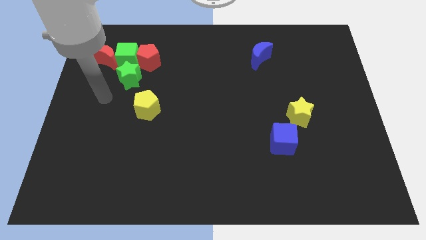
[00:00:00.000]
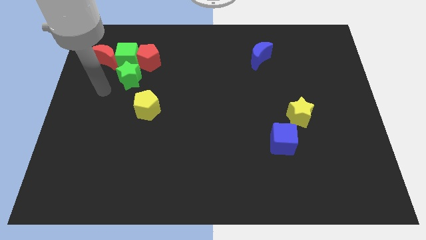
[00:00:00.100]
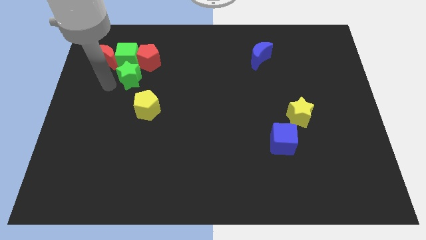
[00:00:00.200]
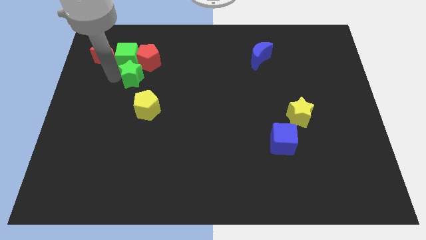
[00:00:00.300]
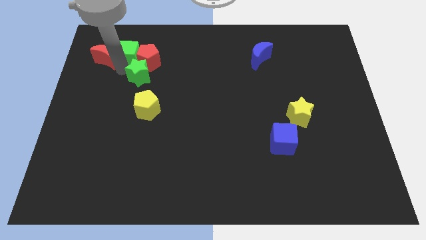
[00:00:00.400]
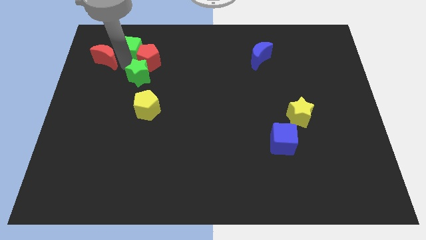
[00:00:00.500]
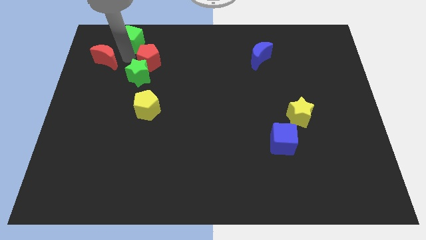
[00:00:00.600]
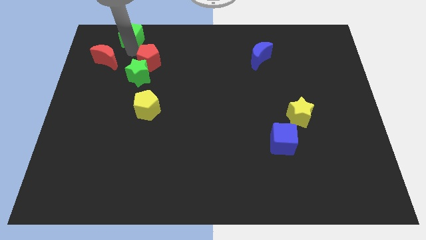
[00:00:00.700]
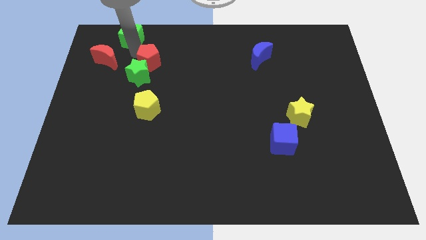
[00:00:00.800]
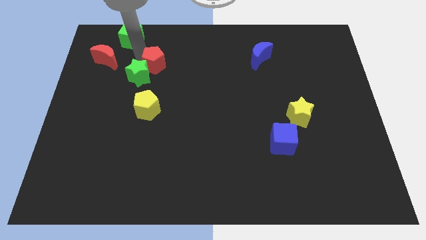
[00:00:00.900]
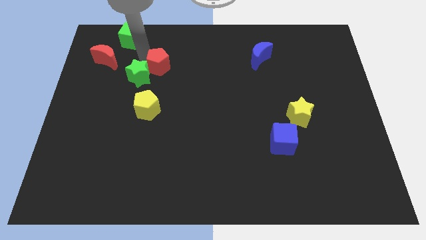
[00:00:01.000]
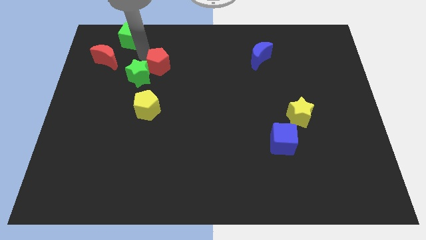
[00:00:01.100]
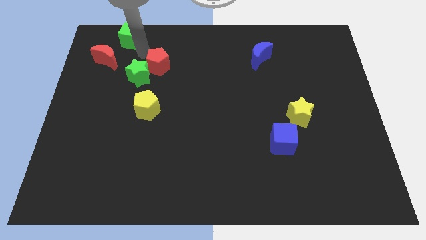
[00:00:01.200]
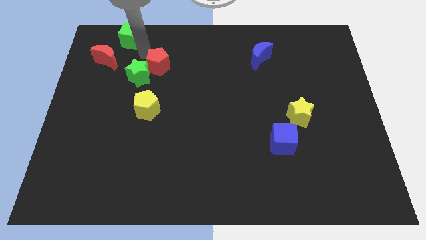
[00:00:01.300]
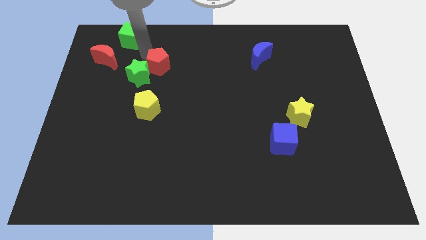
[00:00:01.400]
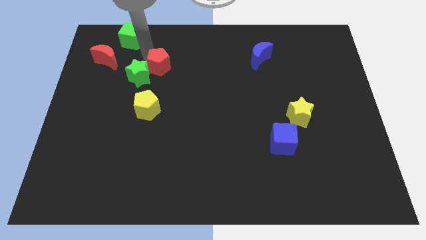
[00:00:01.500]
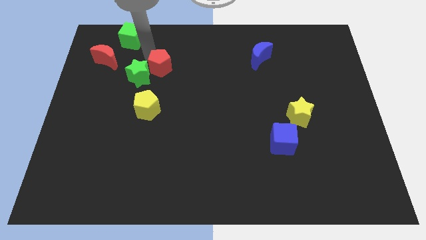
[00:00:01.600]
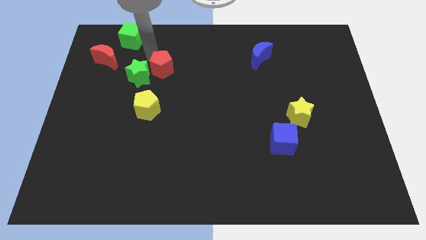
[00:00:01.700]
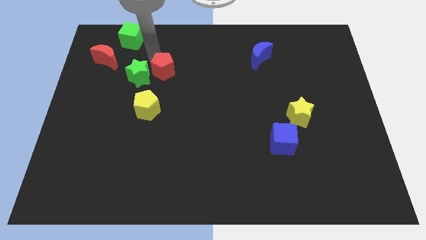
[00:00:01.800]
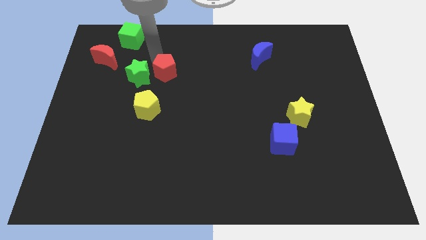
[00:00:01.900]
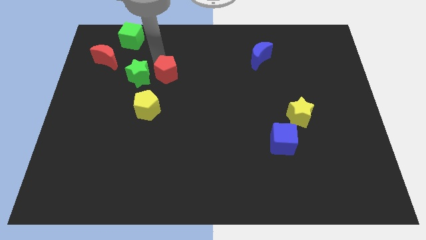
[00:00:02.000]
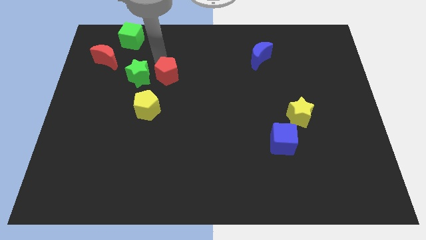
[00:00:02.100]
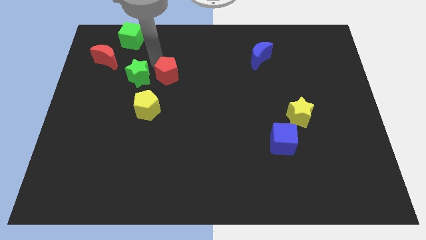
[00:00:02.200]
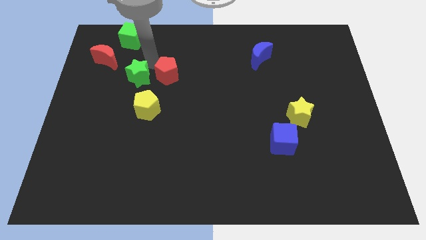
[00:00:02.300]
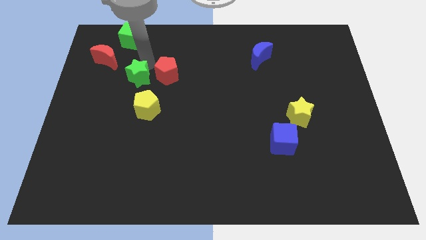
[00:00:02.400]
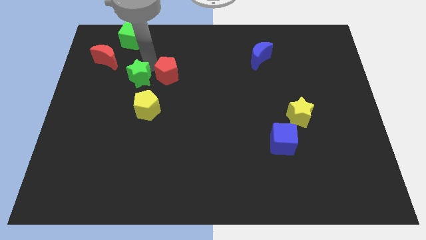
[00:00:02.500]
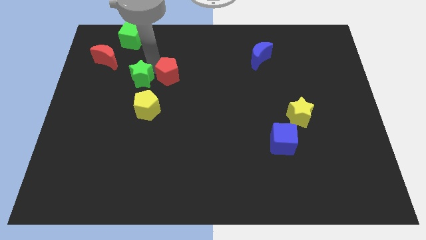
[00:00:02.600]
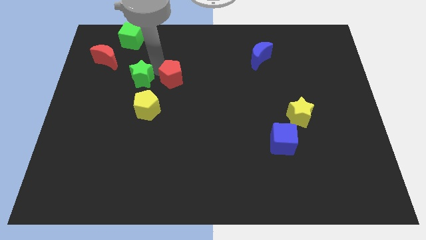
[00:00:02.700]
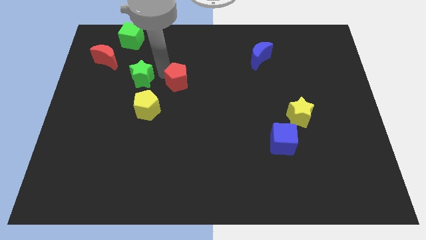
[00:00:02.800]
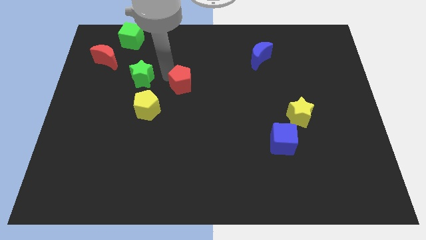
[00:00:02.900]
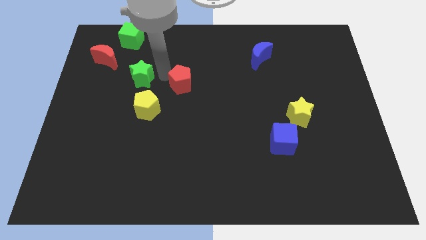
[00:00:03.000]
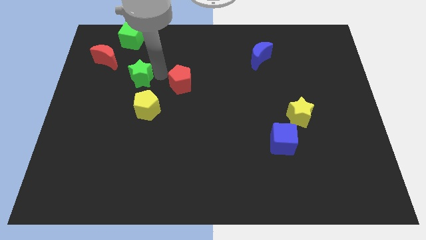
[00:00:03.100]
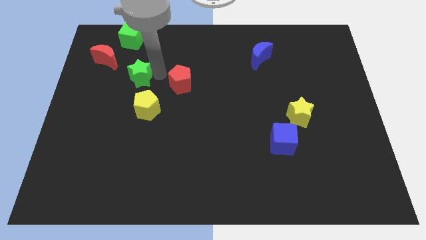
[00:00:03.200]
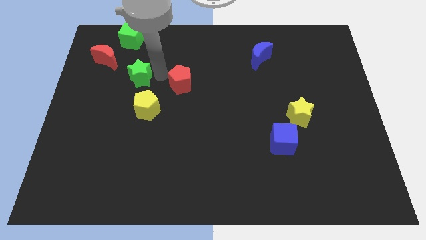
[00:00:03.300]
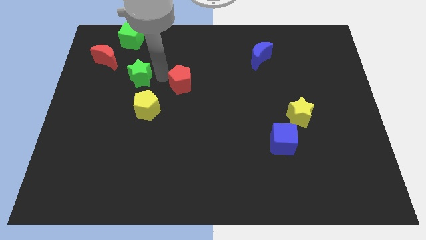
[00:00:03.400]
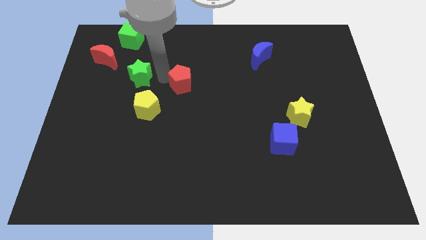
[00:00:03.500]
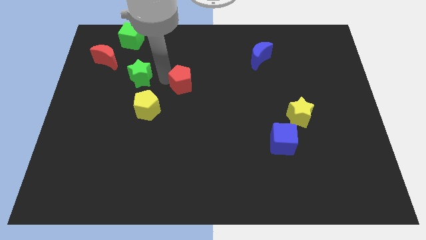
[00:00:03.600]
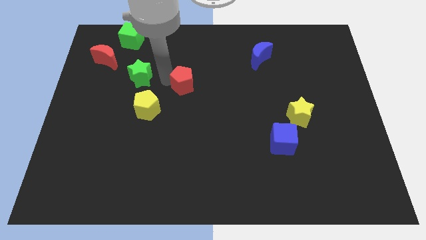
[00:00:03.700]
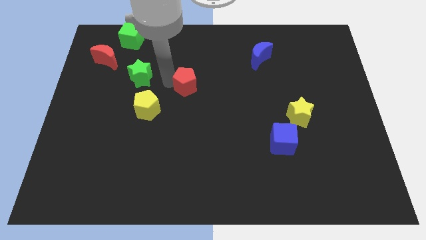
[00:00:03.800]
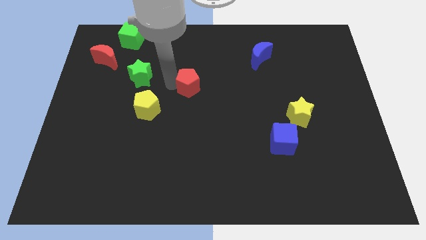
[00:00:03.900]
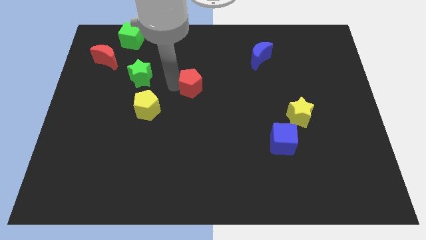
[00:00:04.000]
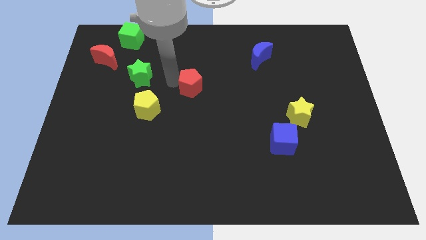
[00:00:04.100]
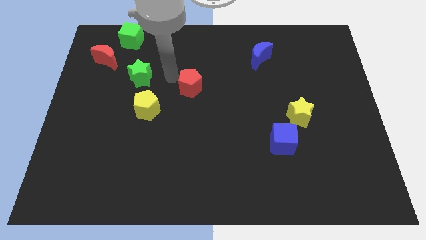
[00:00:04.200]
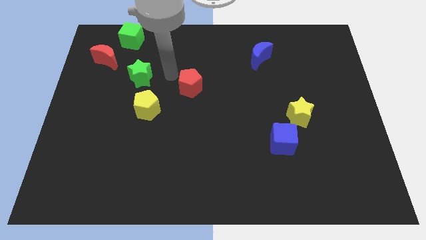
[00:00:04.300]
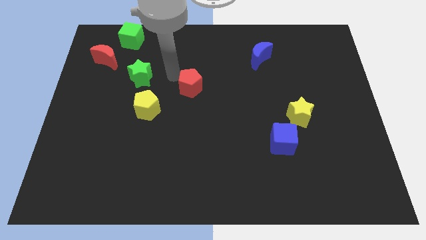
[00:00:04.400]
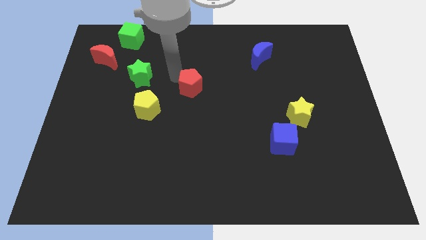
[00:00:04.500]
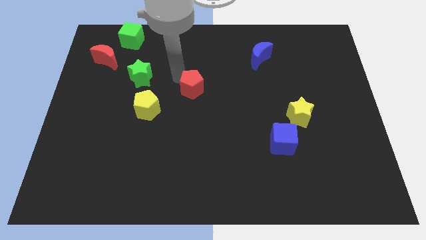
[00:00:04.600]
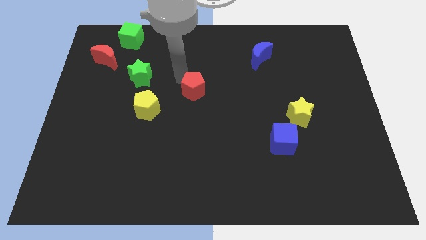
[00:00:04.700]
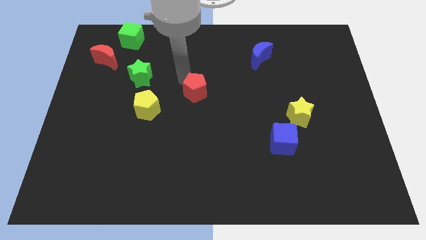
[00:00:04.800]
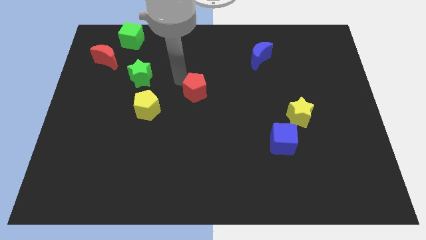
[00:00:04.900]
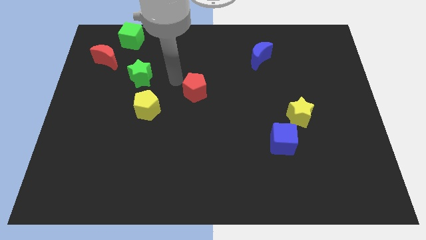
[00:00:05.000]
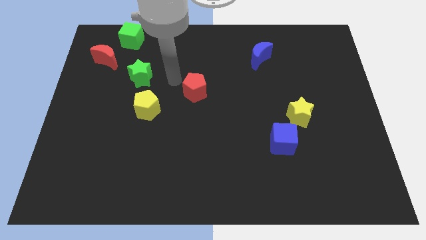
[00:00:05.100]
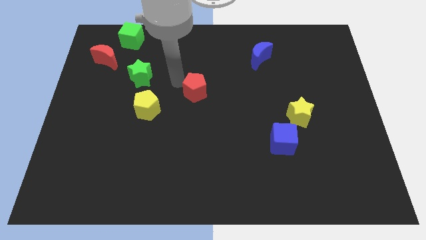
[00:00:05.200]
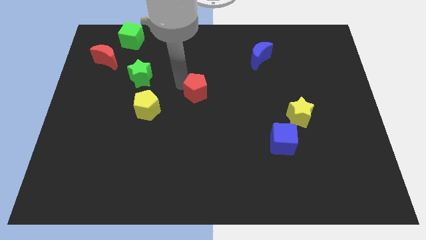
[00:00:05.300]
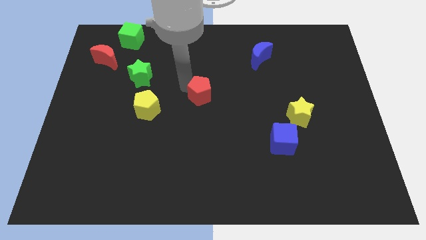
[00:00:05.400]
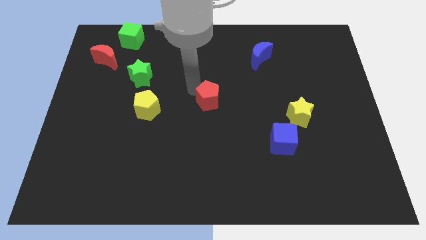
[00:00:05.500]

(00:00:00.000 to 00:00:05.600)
slide the red pentagon downwards and right

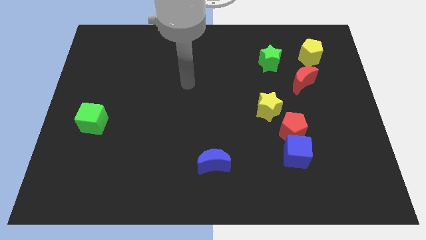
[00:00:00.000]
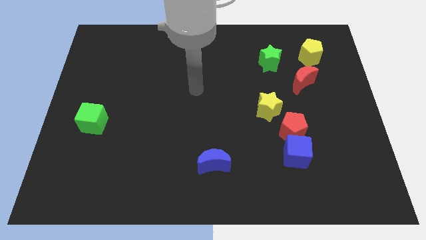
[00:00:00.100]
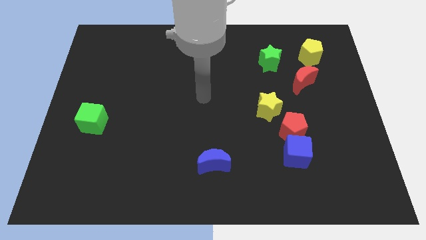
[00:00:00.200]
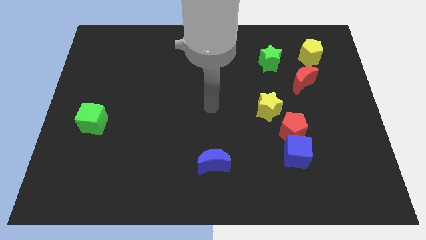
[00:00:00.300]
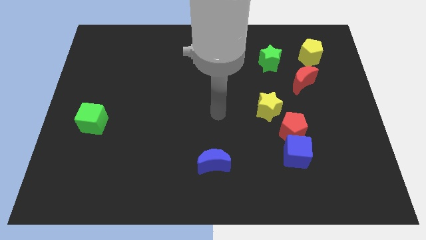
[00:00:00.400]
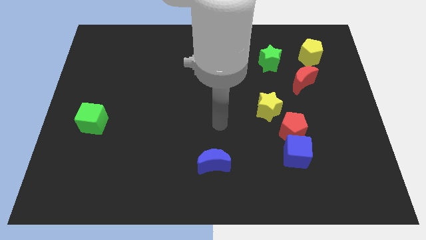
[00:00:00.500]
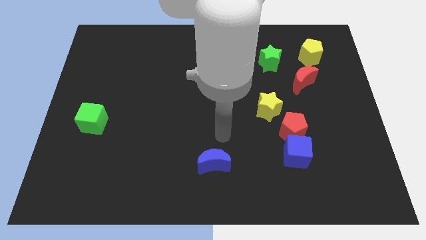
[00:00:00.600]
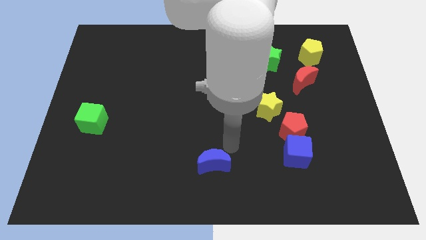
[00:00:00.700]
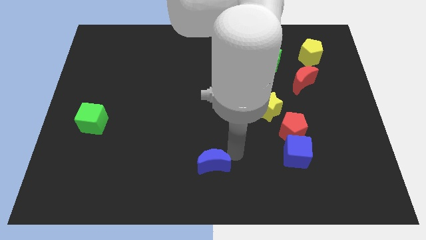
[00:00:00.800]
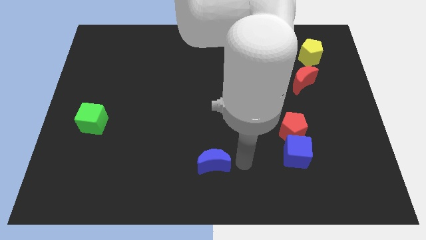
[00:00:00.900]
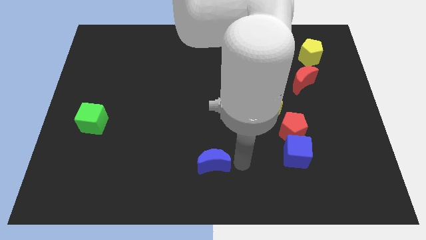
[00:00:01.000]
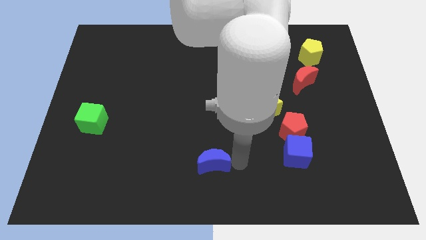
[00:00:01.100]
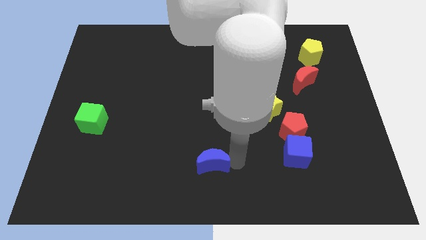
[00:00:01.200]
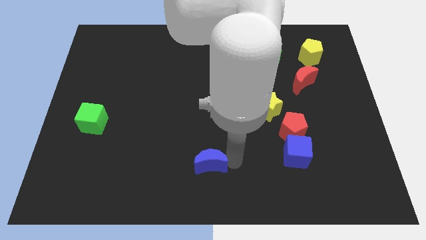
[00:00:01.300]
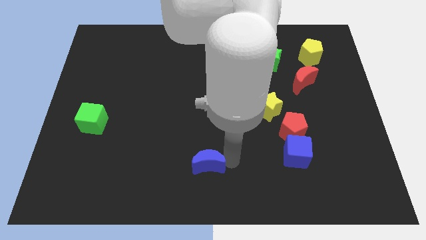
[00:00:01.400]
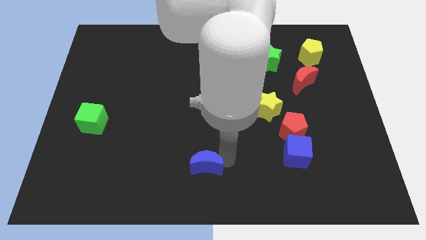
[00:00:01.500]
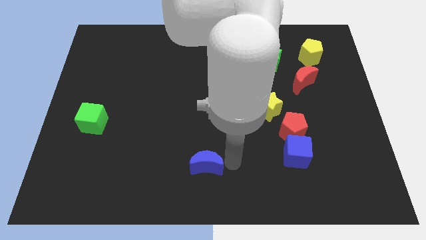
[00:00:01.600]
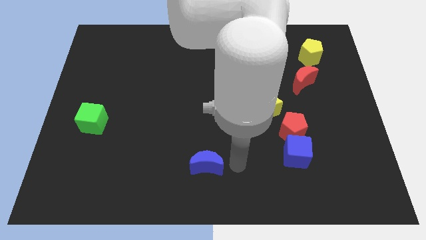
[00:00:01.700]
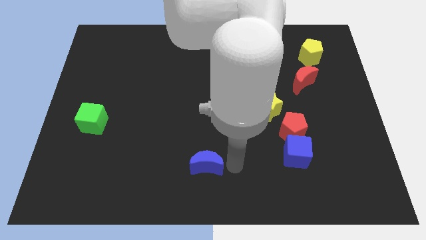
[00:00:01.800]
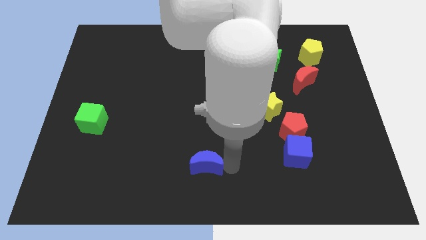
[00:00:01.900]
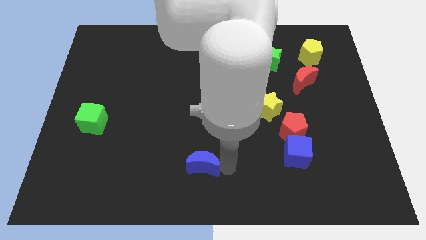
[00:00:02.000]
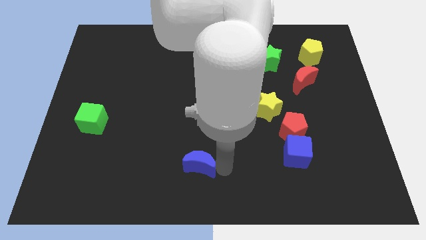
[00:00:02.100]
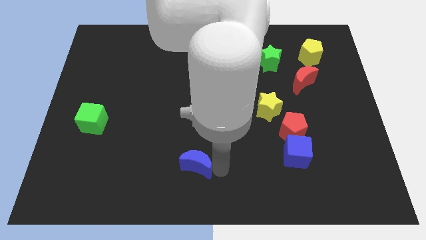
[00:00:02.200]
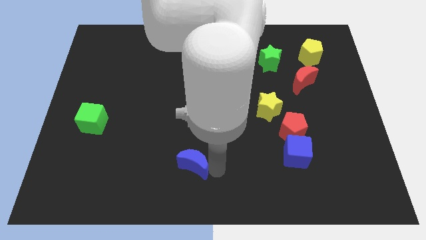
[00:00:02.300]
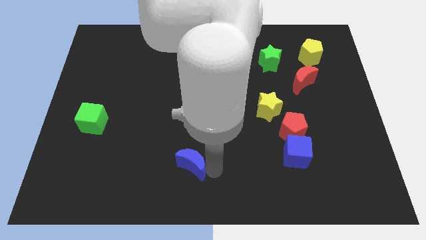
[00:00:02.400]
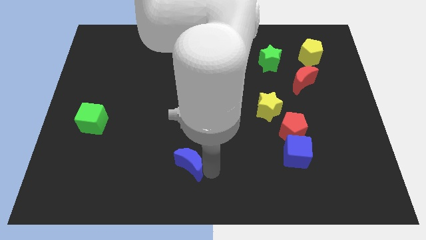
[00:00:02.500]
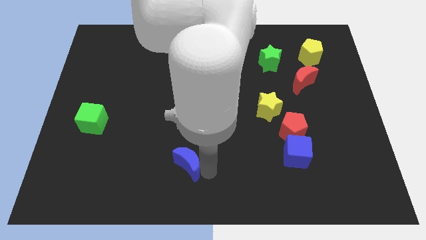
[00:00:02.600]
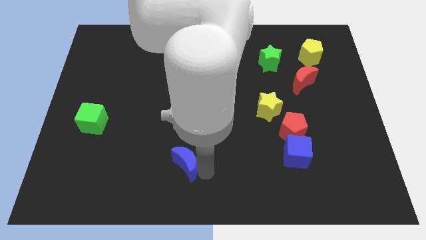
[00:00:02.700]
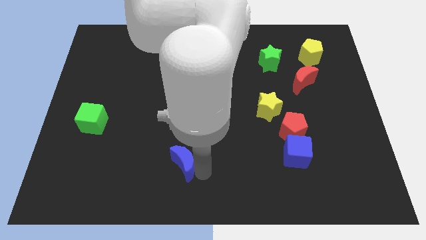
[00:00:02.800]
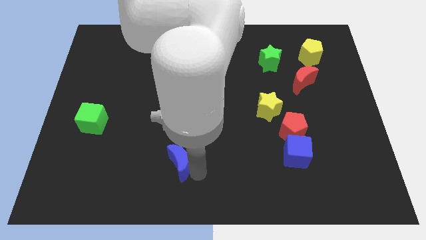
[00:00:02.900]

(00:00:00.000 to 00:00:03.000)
slide the blue moon left a bit
